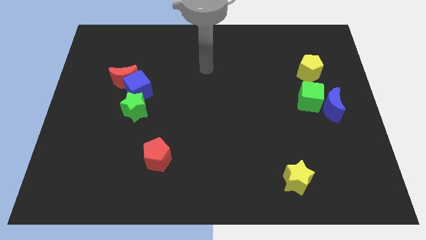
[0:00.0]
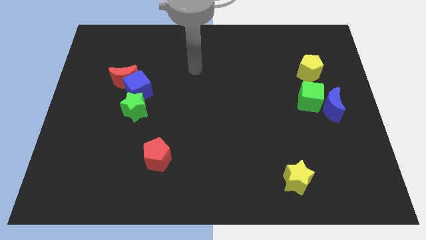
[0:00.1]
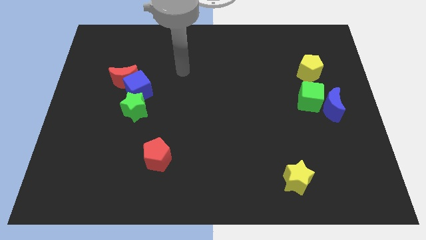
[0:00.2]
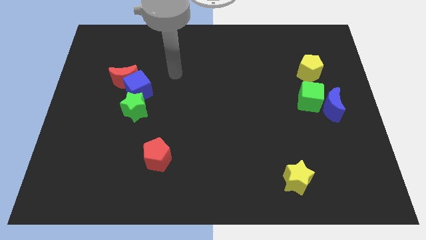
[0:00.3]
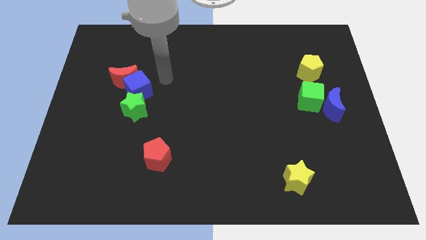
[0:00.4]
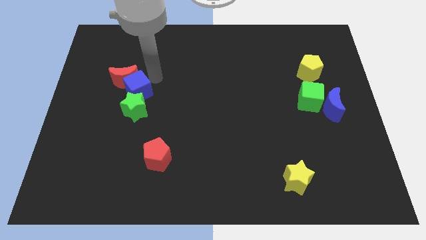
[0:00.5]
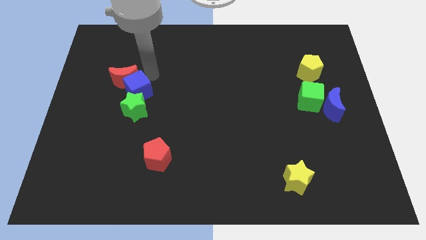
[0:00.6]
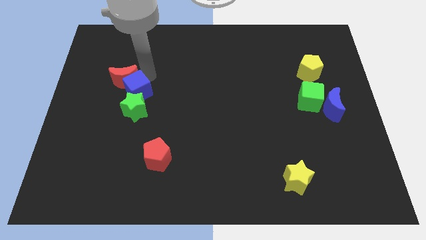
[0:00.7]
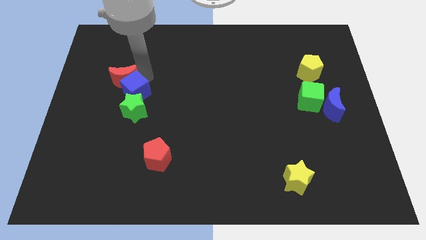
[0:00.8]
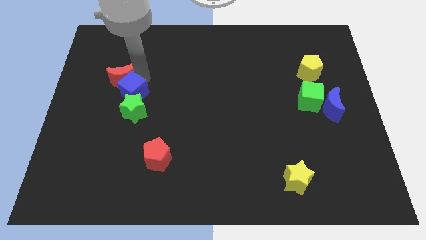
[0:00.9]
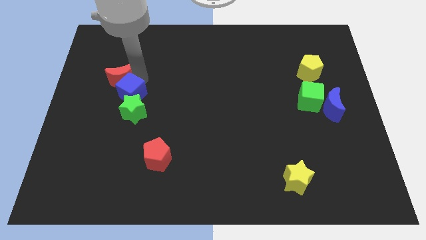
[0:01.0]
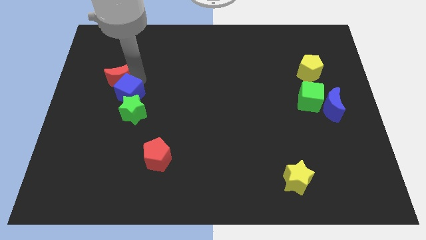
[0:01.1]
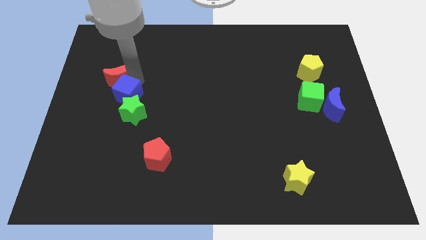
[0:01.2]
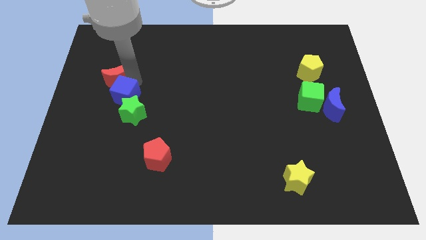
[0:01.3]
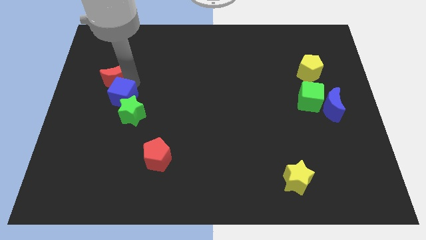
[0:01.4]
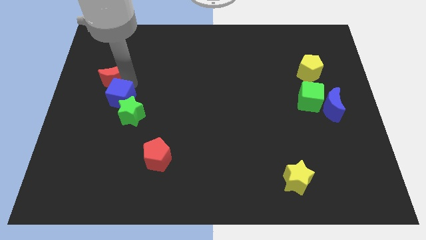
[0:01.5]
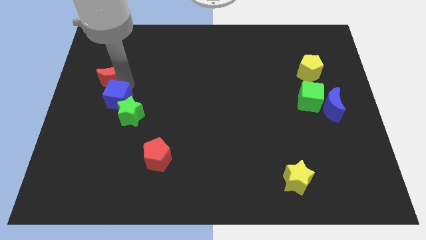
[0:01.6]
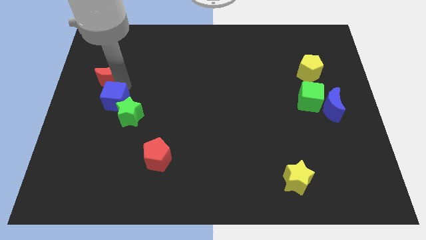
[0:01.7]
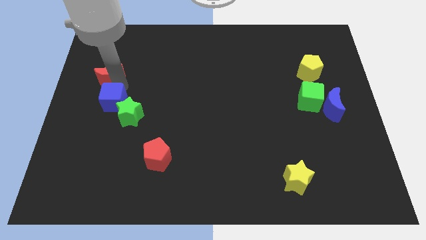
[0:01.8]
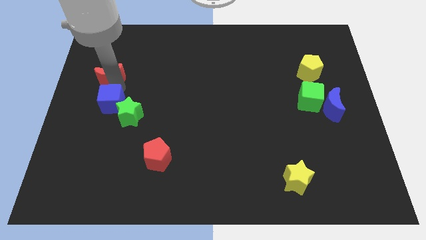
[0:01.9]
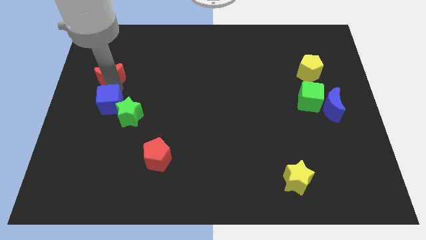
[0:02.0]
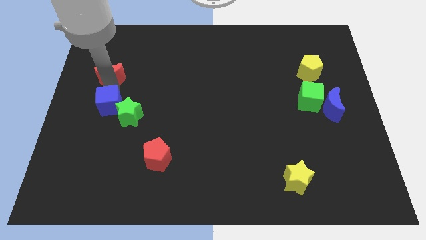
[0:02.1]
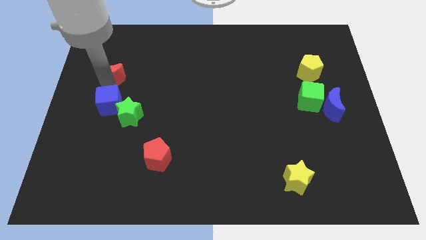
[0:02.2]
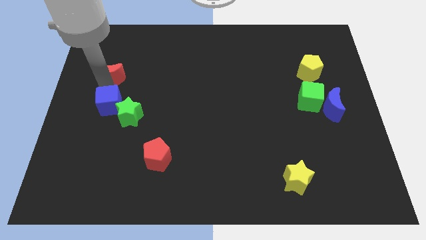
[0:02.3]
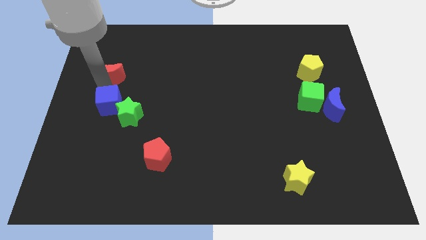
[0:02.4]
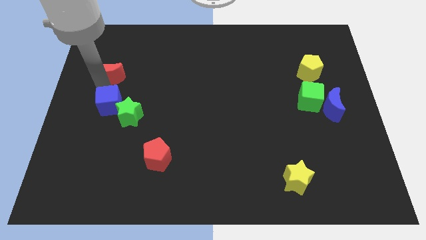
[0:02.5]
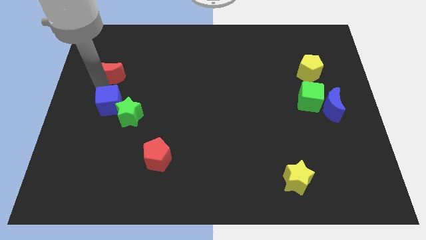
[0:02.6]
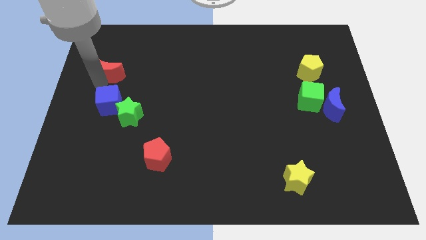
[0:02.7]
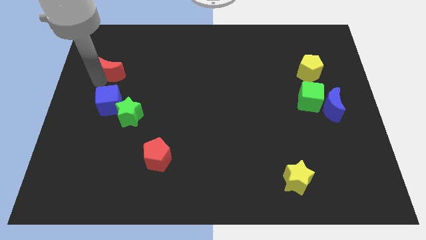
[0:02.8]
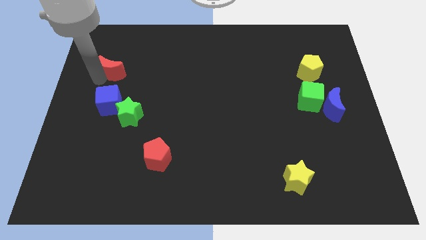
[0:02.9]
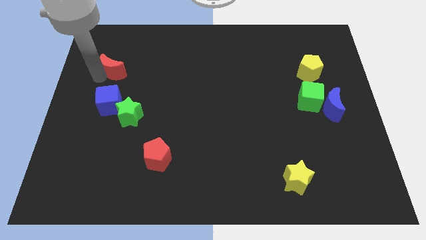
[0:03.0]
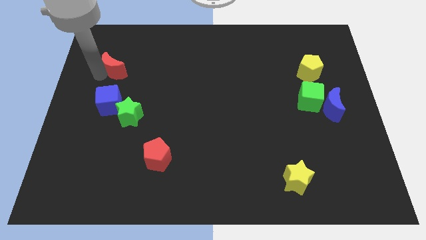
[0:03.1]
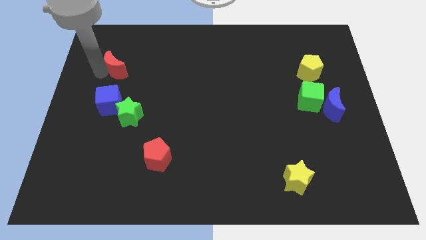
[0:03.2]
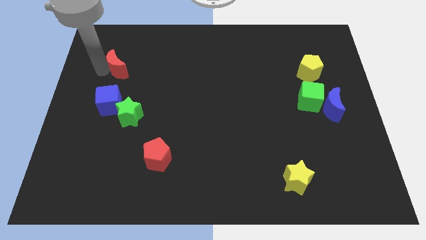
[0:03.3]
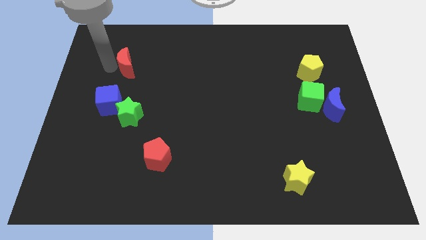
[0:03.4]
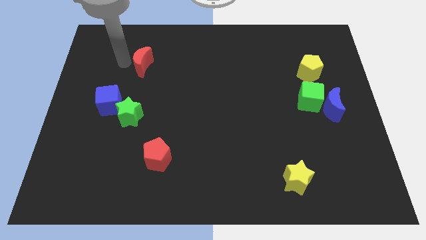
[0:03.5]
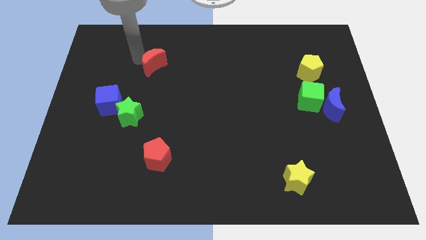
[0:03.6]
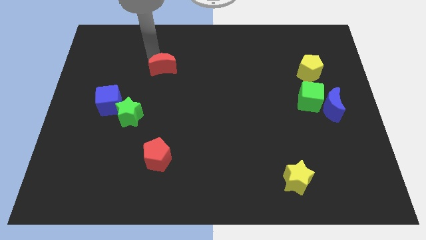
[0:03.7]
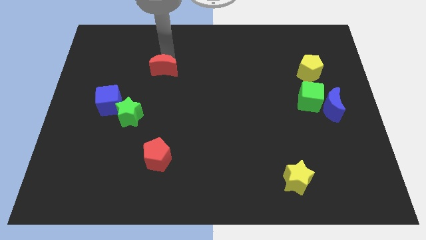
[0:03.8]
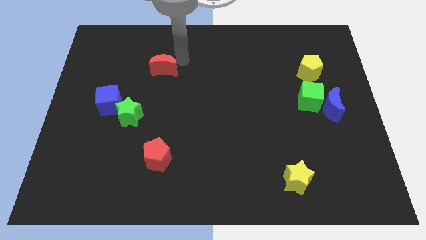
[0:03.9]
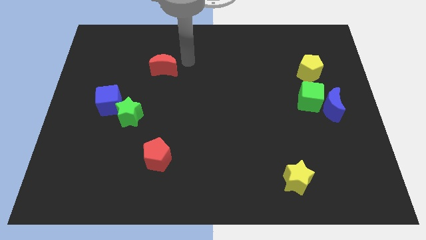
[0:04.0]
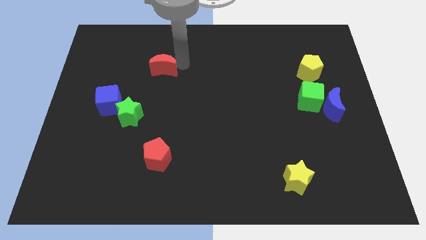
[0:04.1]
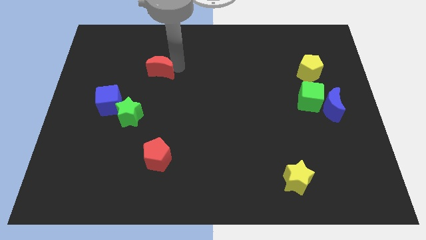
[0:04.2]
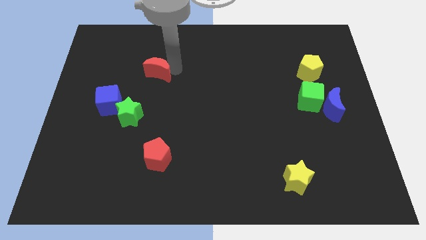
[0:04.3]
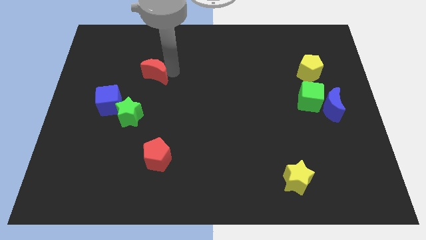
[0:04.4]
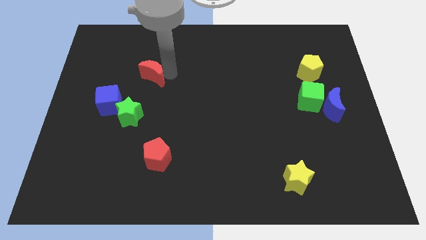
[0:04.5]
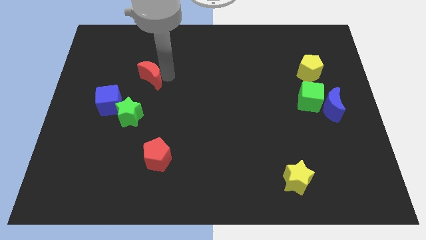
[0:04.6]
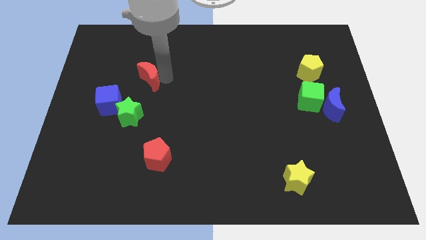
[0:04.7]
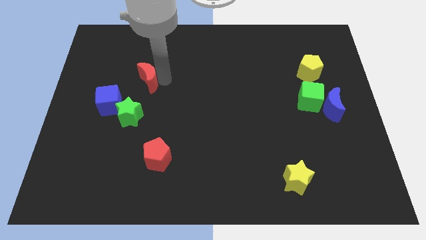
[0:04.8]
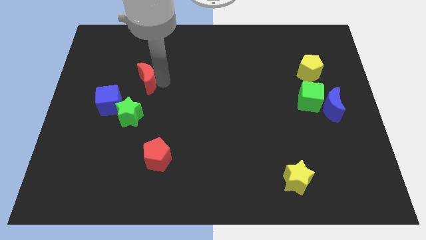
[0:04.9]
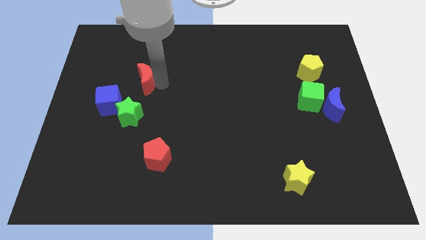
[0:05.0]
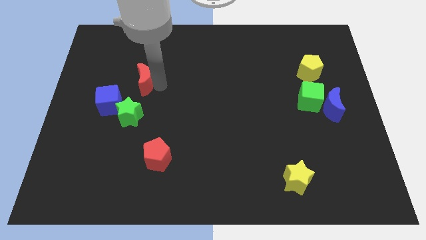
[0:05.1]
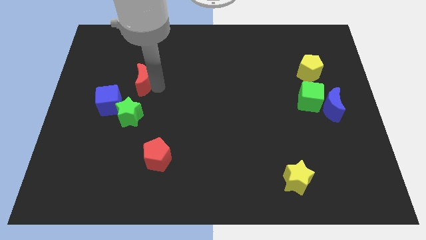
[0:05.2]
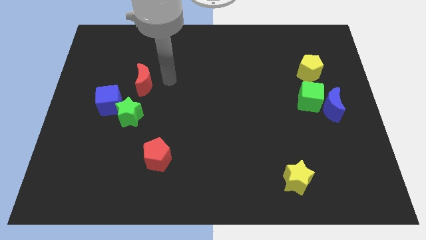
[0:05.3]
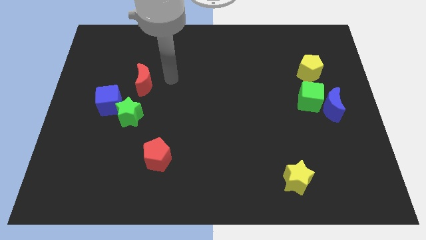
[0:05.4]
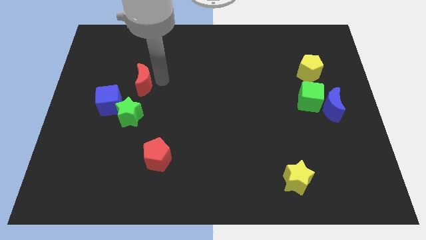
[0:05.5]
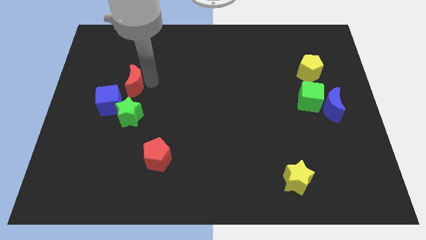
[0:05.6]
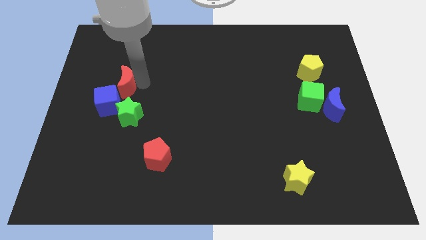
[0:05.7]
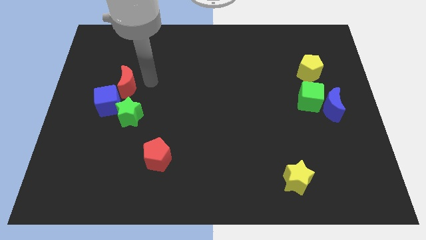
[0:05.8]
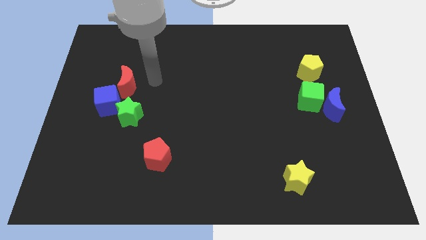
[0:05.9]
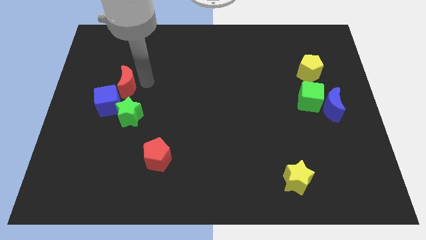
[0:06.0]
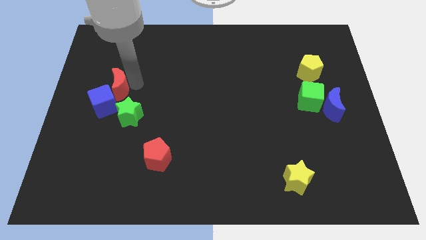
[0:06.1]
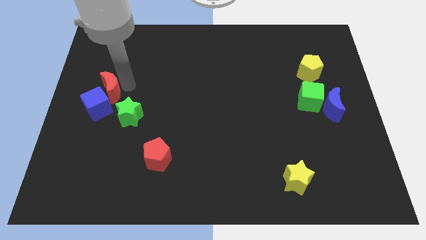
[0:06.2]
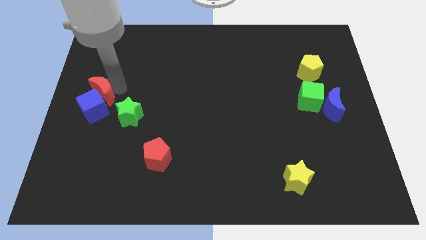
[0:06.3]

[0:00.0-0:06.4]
put the red moon to the left side

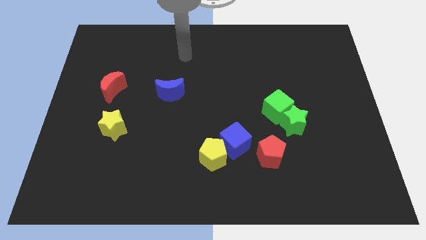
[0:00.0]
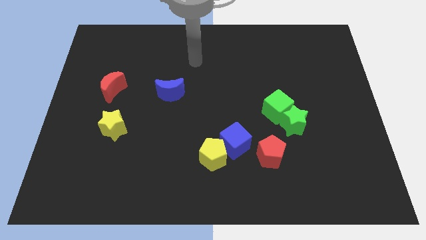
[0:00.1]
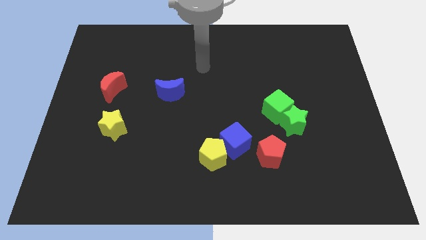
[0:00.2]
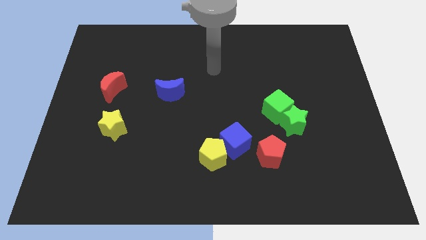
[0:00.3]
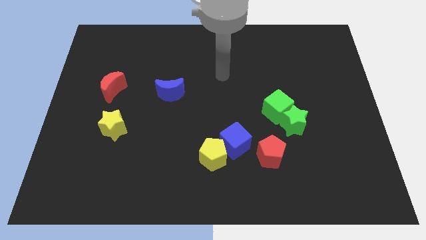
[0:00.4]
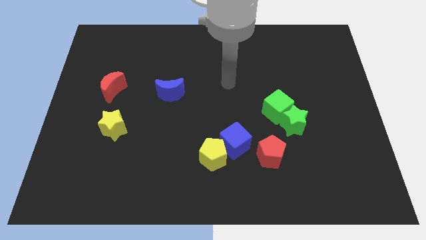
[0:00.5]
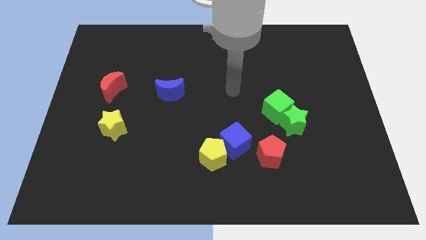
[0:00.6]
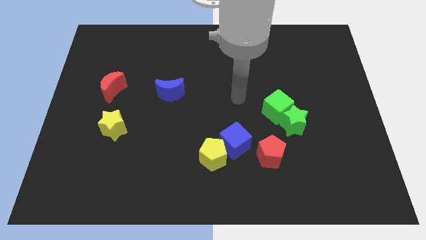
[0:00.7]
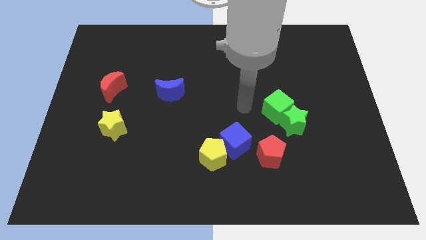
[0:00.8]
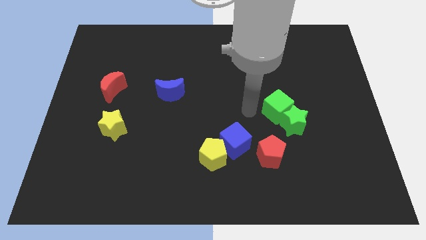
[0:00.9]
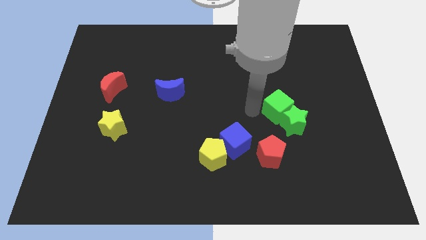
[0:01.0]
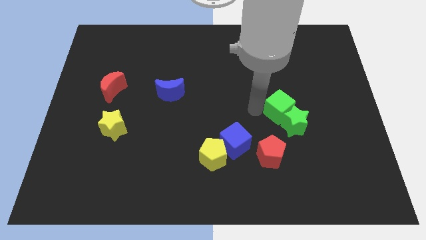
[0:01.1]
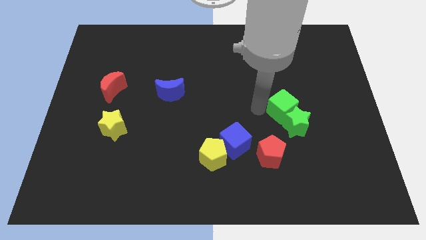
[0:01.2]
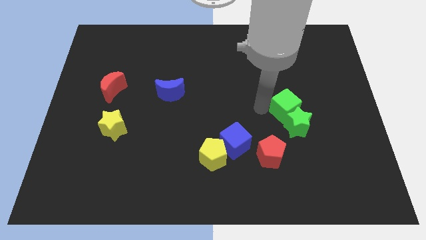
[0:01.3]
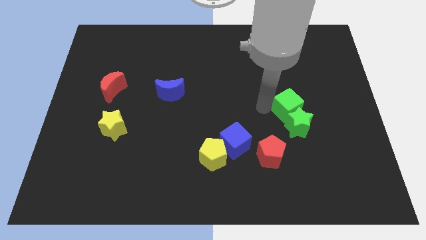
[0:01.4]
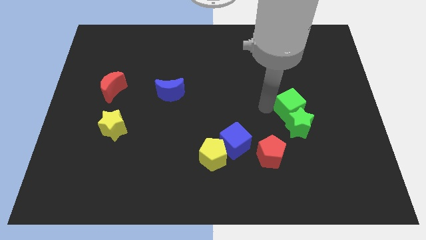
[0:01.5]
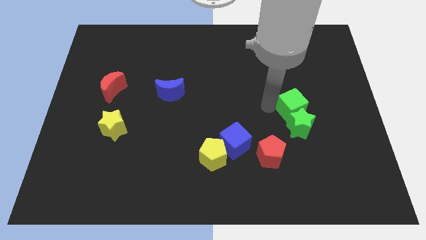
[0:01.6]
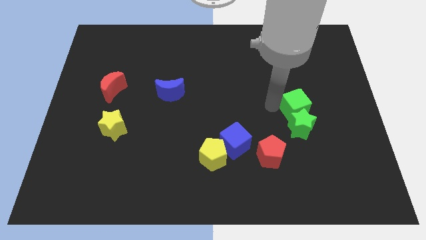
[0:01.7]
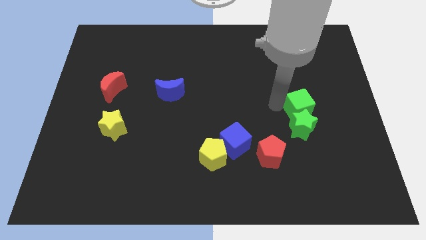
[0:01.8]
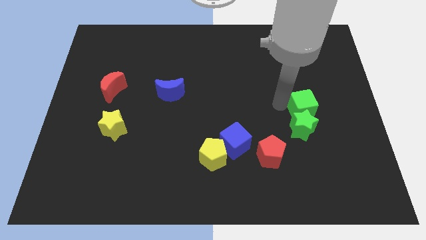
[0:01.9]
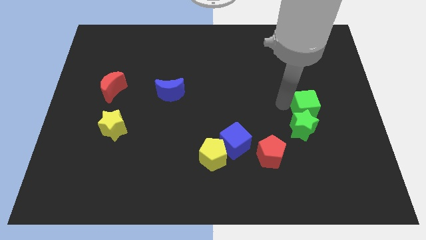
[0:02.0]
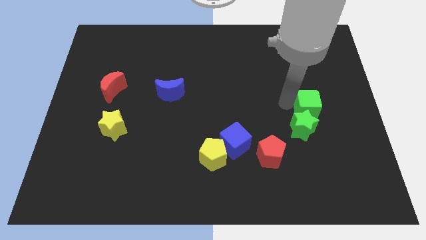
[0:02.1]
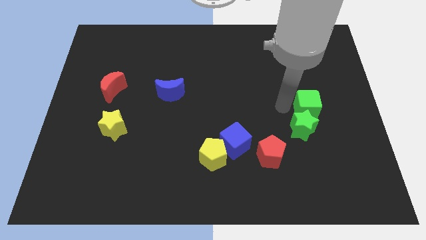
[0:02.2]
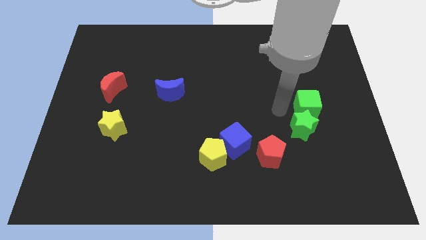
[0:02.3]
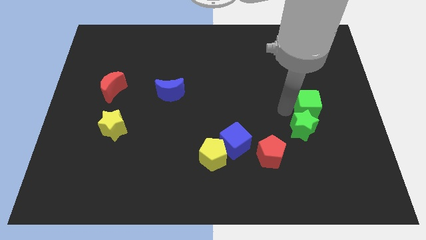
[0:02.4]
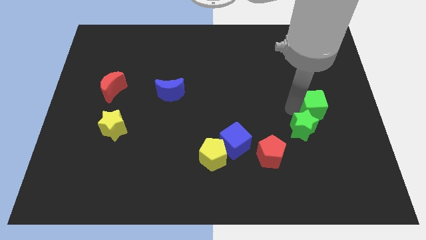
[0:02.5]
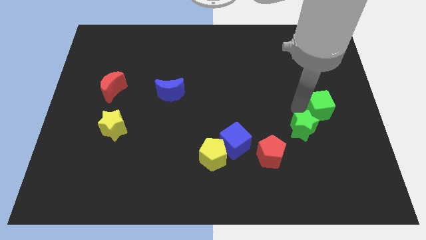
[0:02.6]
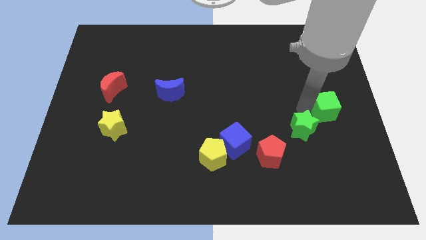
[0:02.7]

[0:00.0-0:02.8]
put the green cube to the center right
